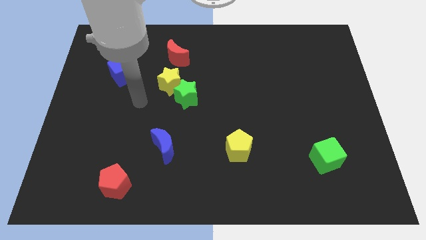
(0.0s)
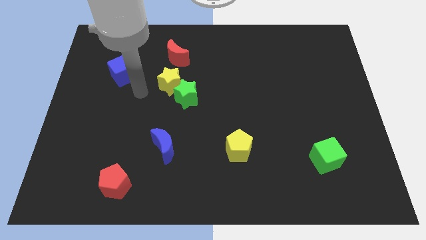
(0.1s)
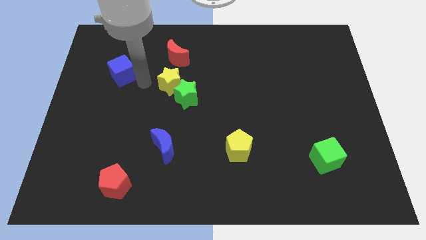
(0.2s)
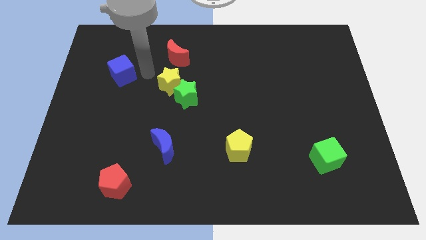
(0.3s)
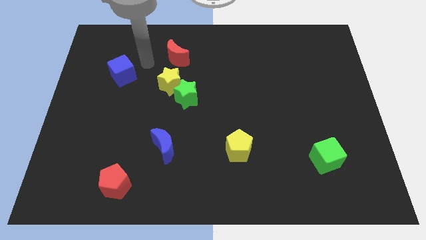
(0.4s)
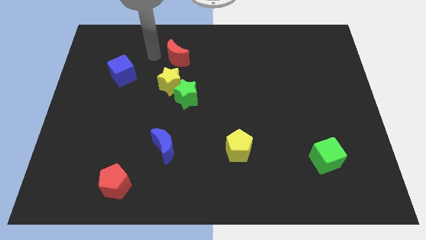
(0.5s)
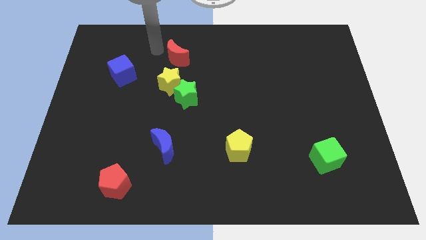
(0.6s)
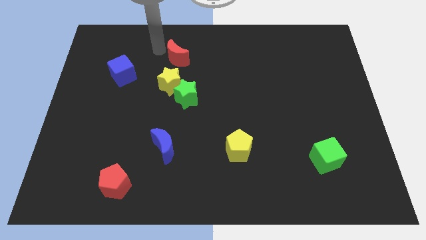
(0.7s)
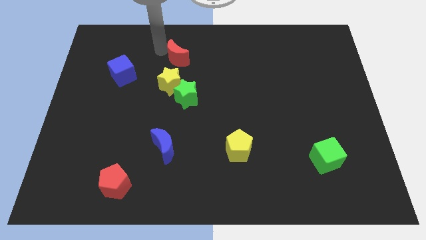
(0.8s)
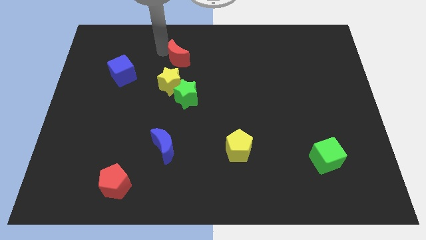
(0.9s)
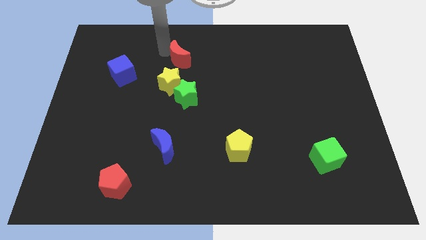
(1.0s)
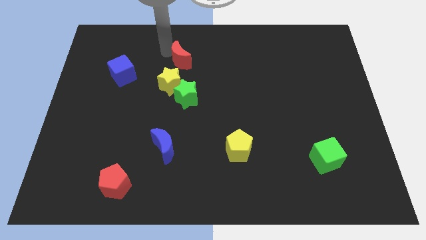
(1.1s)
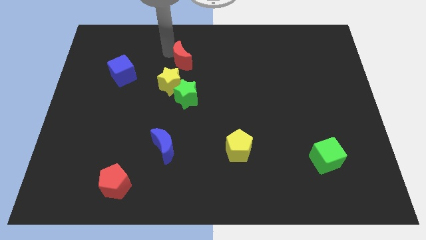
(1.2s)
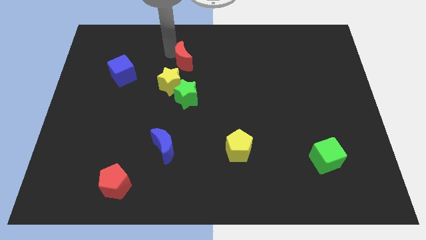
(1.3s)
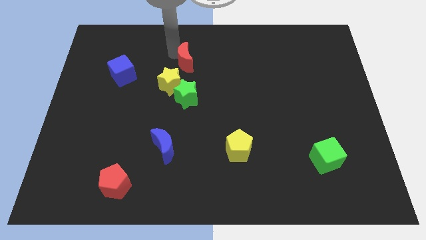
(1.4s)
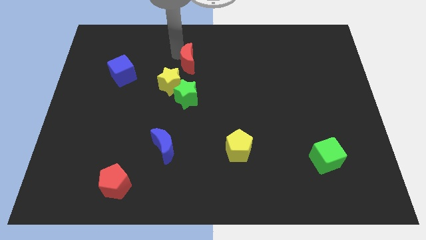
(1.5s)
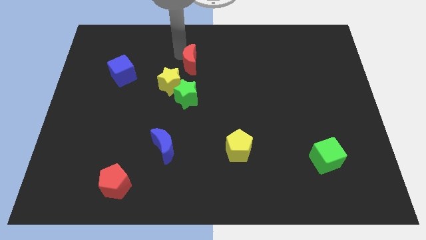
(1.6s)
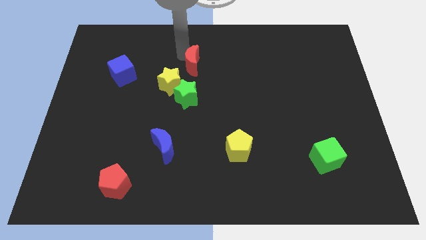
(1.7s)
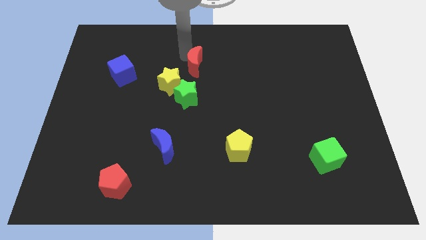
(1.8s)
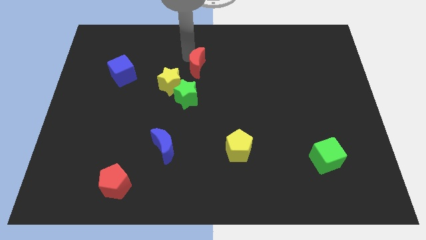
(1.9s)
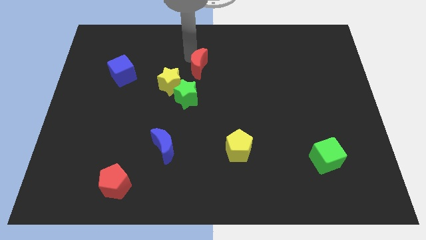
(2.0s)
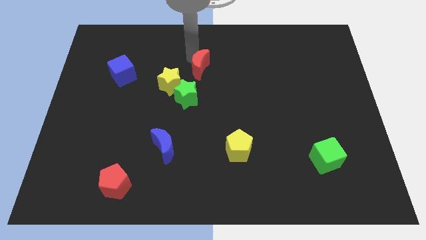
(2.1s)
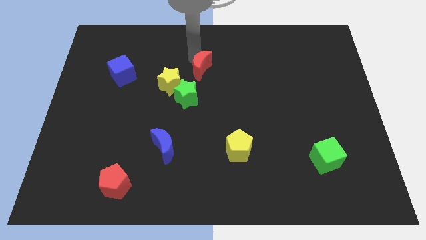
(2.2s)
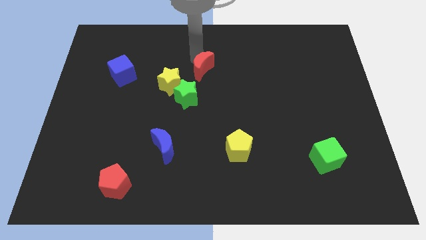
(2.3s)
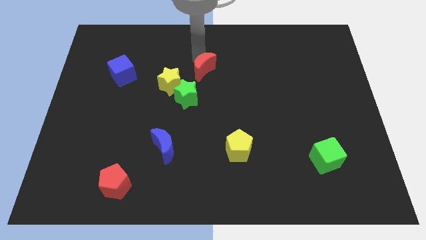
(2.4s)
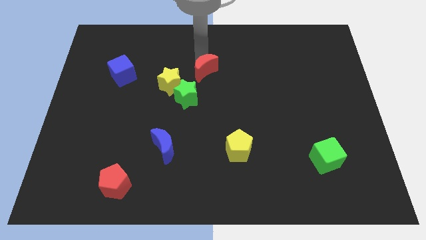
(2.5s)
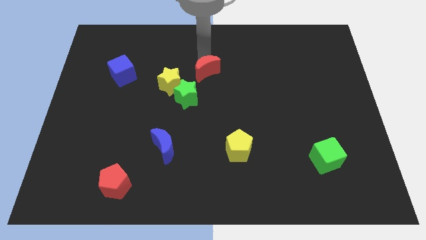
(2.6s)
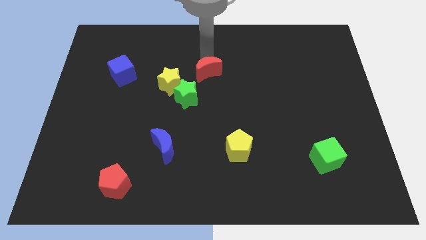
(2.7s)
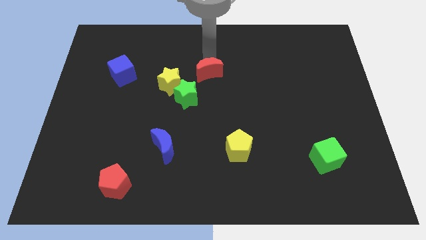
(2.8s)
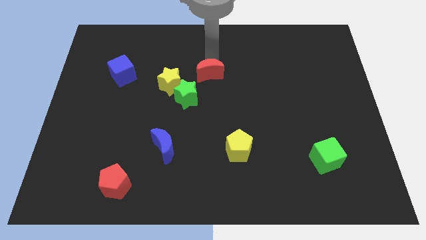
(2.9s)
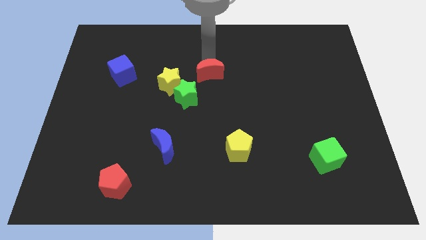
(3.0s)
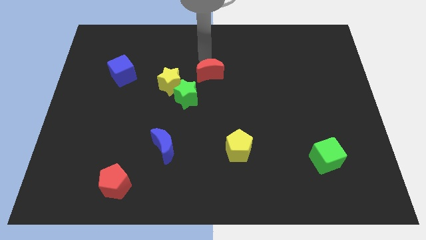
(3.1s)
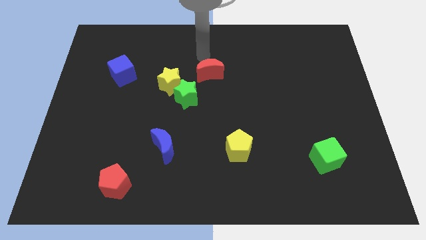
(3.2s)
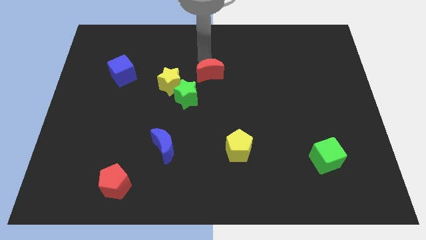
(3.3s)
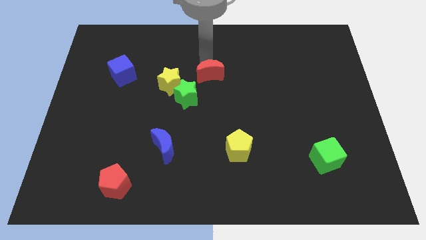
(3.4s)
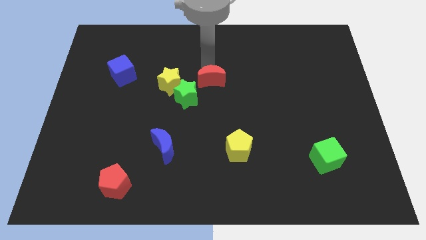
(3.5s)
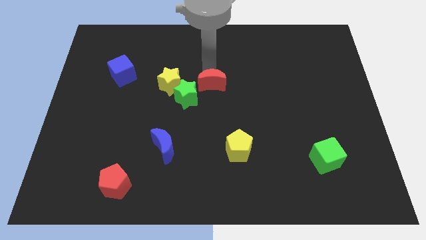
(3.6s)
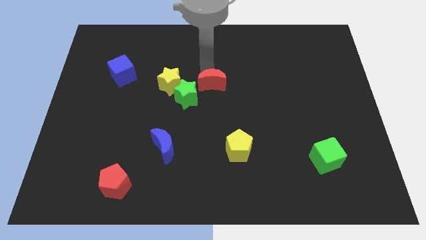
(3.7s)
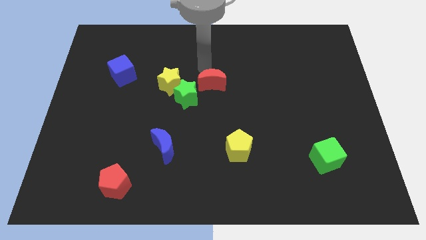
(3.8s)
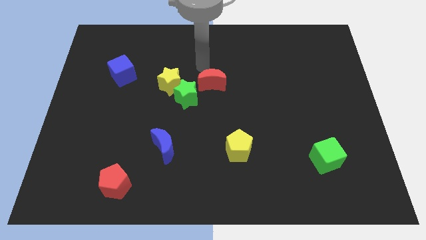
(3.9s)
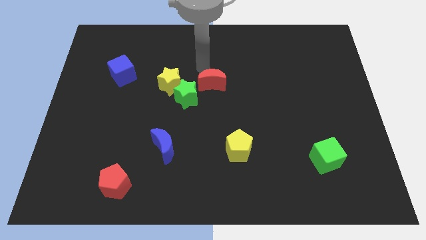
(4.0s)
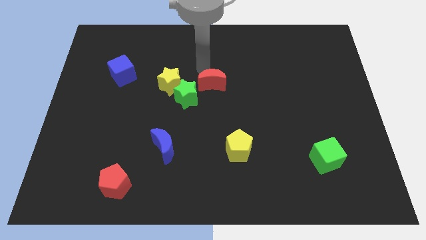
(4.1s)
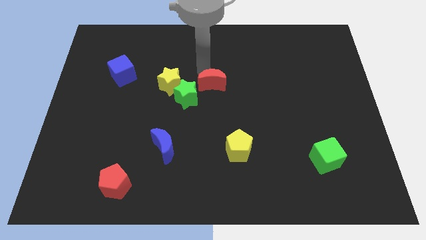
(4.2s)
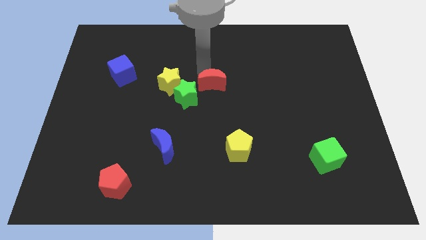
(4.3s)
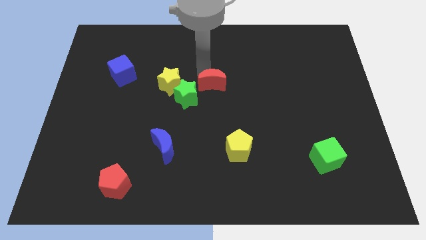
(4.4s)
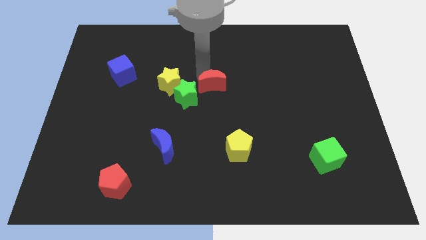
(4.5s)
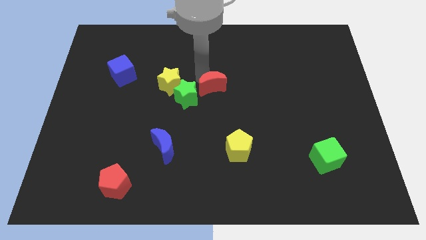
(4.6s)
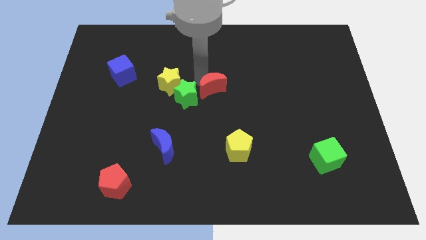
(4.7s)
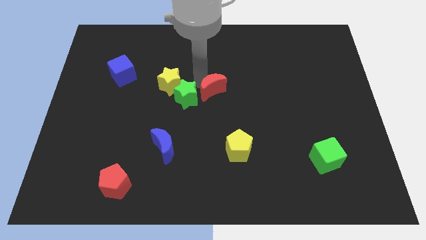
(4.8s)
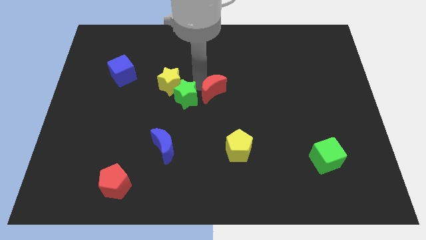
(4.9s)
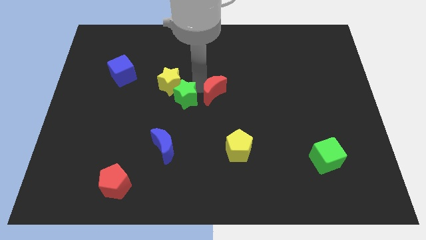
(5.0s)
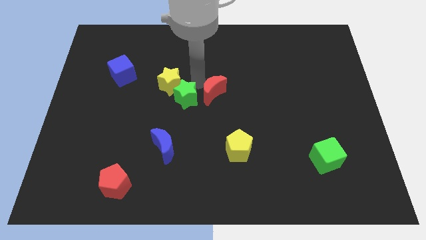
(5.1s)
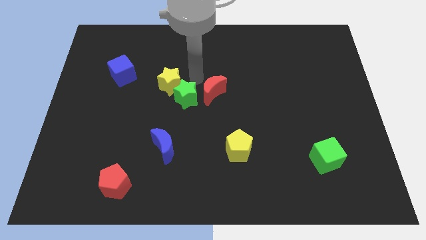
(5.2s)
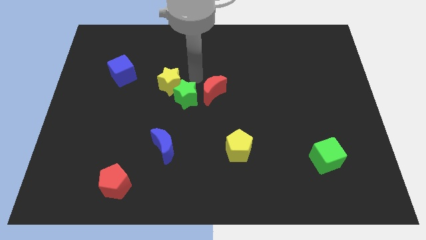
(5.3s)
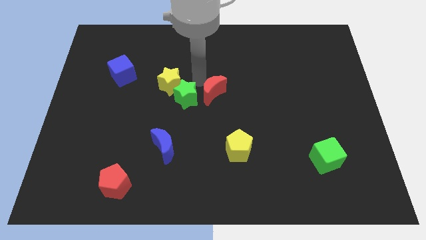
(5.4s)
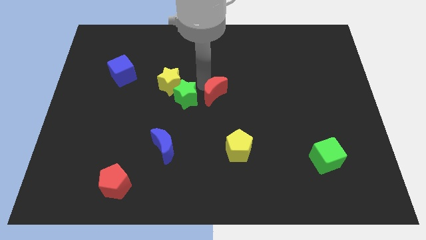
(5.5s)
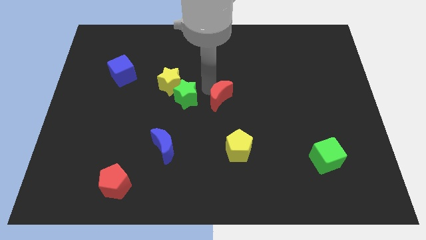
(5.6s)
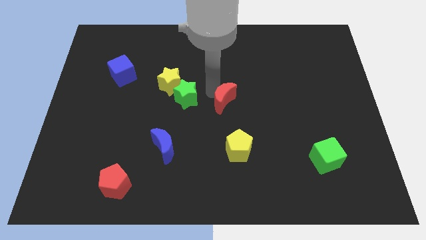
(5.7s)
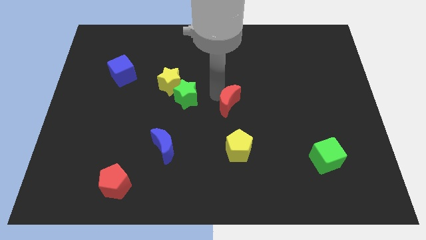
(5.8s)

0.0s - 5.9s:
push the red moon diagonally downwards and right

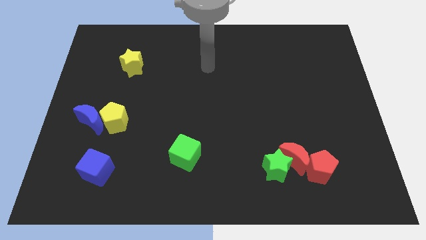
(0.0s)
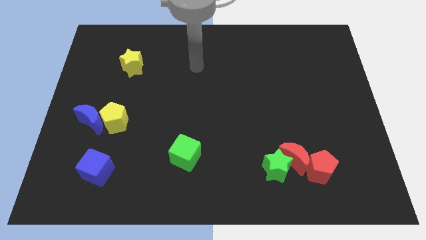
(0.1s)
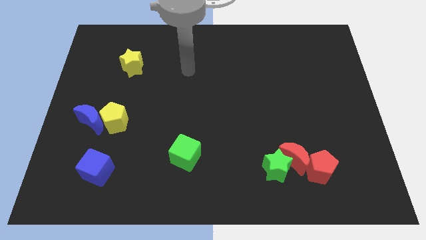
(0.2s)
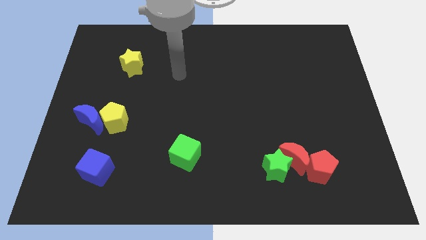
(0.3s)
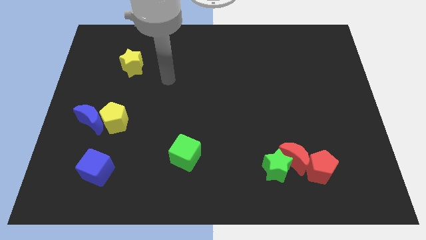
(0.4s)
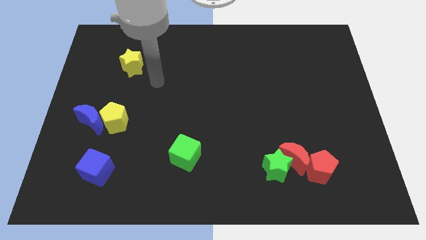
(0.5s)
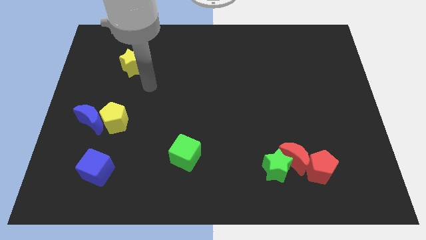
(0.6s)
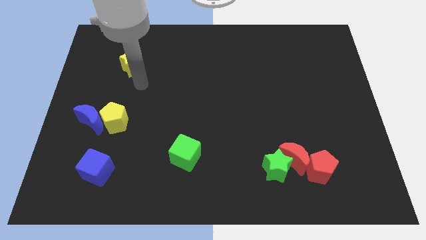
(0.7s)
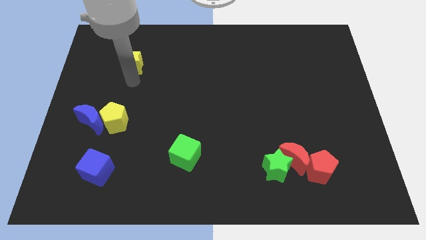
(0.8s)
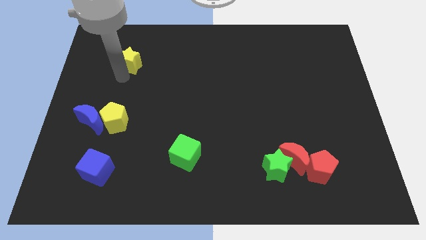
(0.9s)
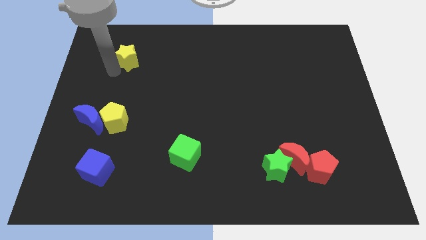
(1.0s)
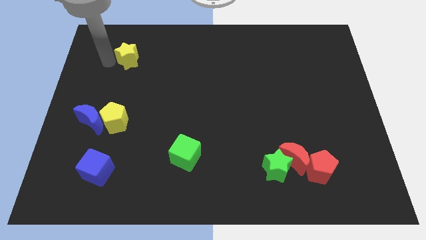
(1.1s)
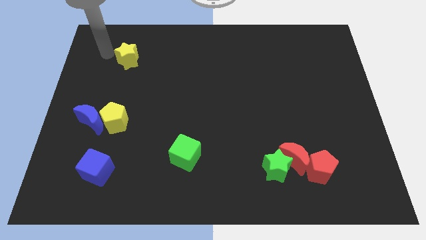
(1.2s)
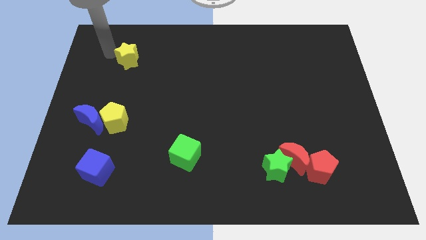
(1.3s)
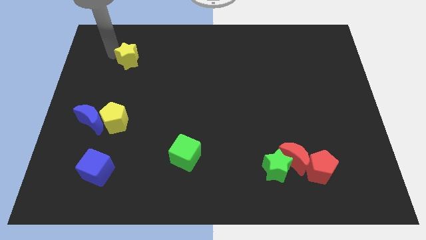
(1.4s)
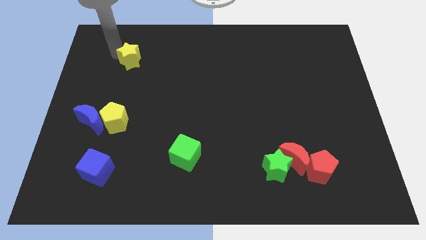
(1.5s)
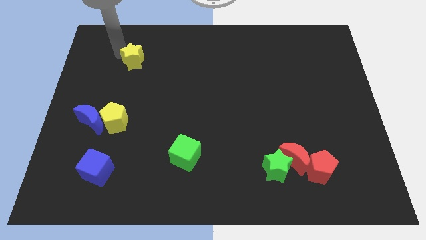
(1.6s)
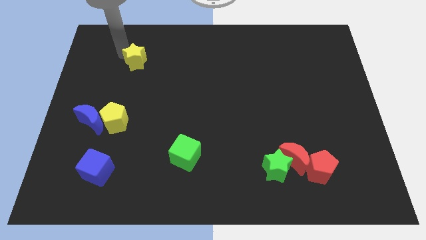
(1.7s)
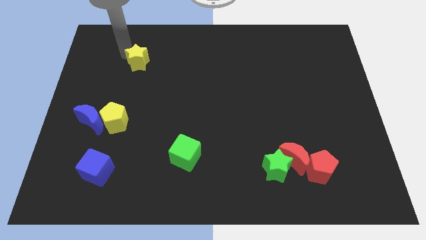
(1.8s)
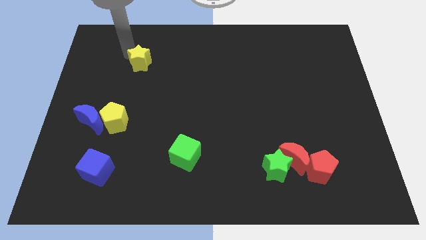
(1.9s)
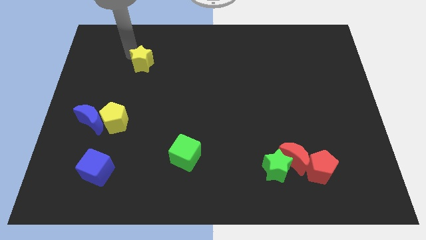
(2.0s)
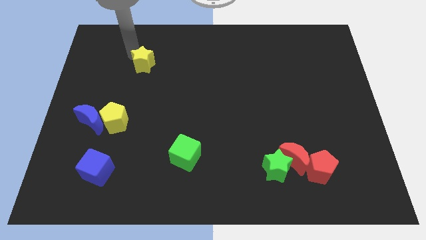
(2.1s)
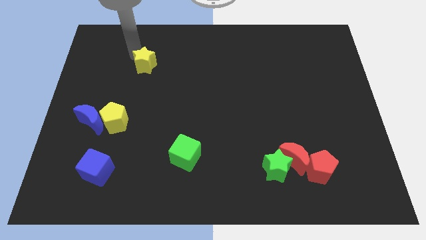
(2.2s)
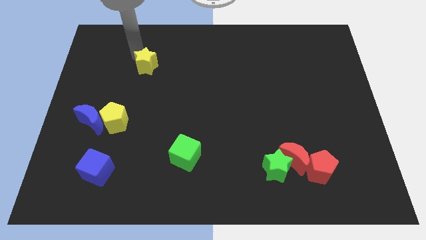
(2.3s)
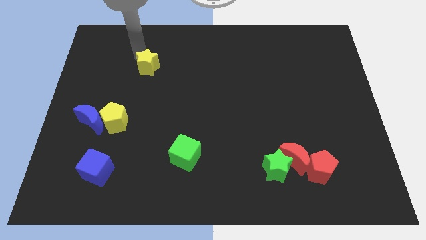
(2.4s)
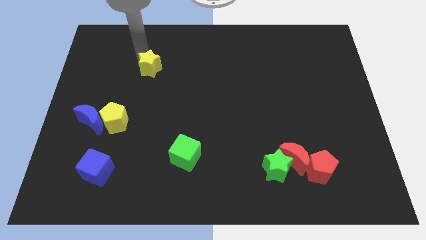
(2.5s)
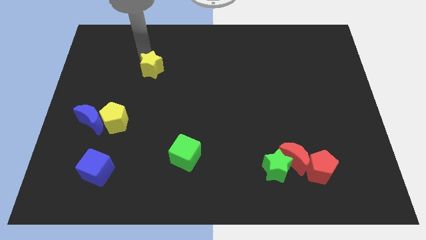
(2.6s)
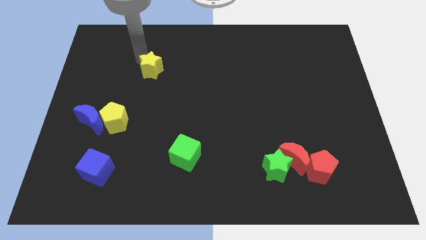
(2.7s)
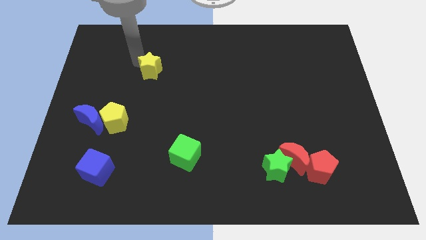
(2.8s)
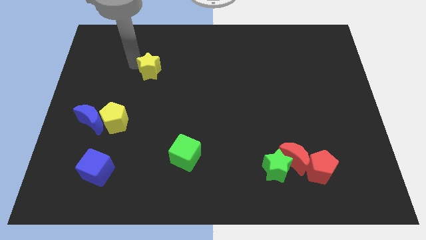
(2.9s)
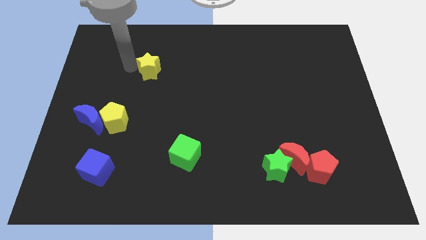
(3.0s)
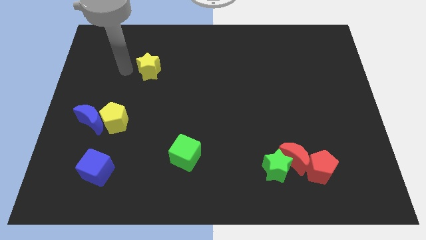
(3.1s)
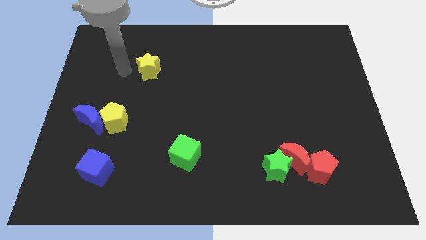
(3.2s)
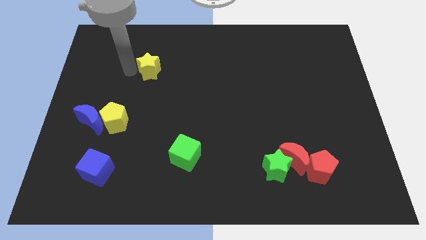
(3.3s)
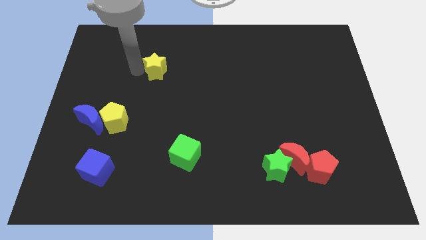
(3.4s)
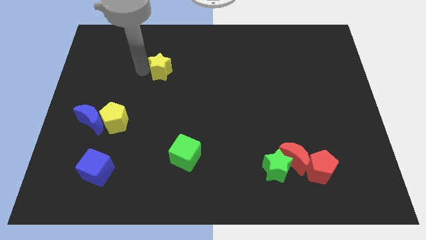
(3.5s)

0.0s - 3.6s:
slightly push the yellow star right
